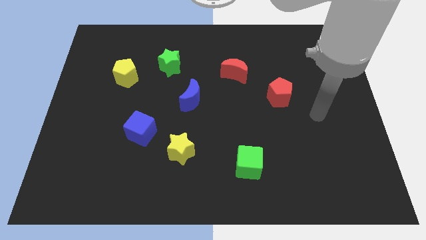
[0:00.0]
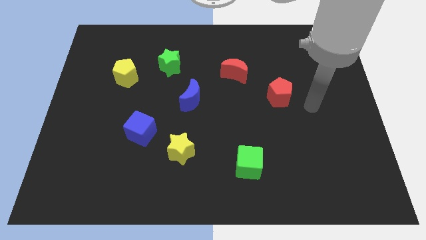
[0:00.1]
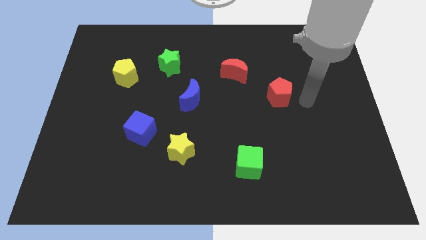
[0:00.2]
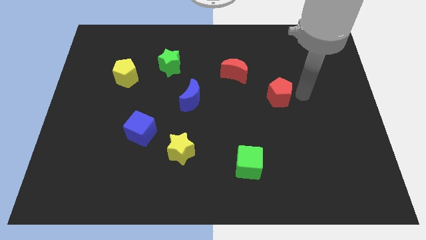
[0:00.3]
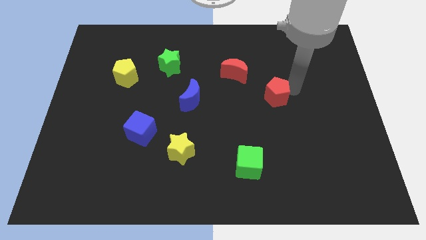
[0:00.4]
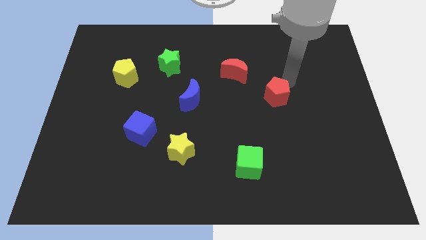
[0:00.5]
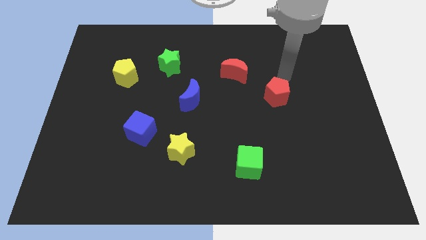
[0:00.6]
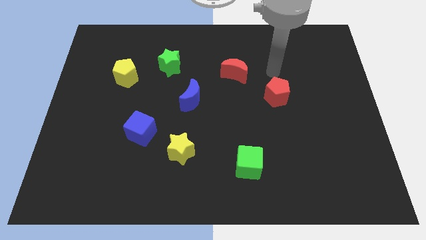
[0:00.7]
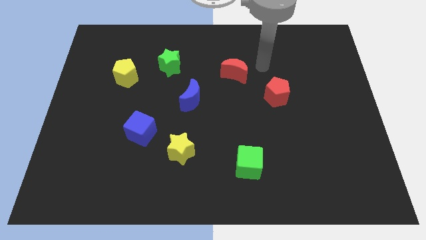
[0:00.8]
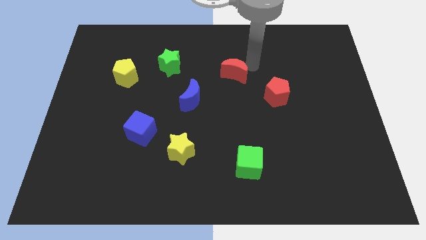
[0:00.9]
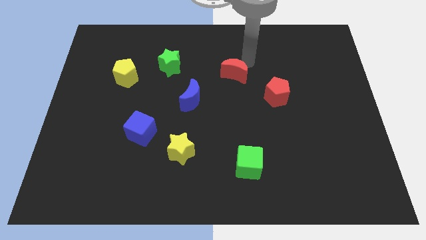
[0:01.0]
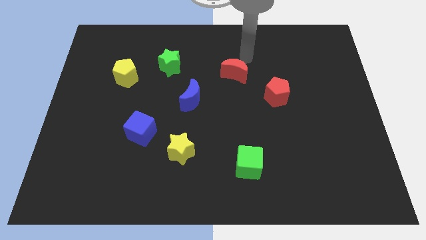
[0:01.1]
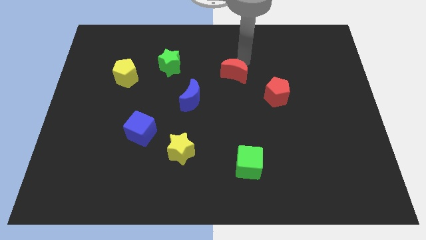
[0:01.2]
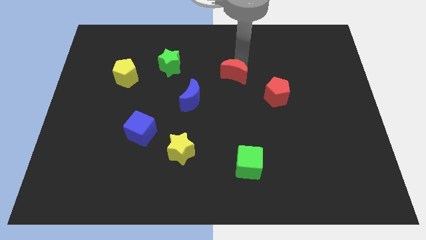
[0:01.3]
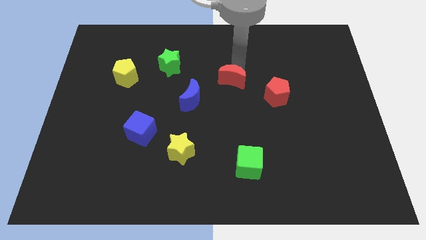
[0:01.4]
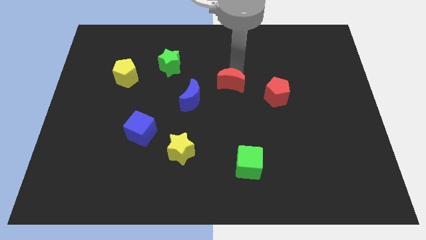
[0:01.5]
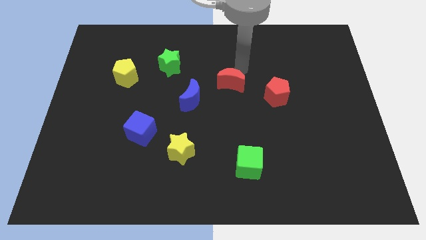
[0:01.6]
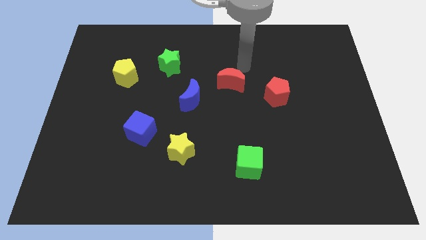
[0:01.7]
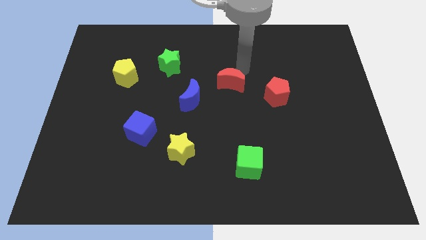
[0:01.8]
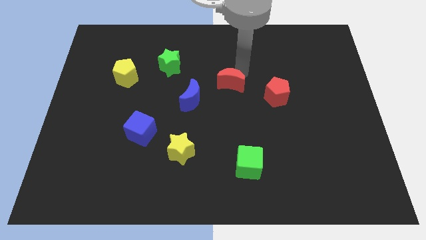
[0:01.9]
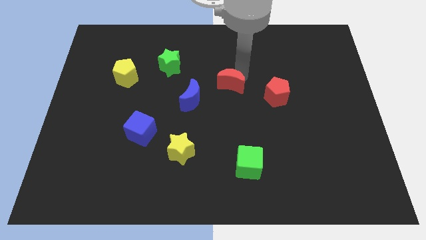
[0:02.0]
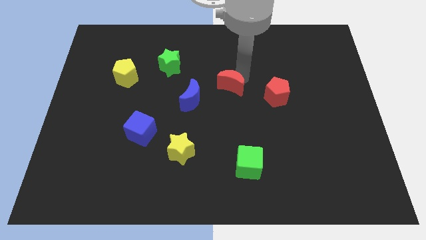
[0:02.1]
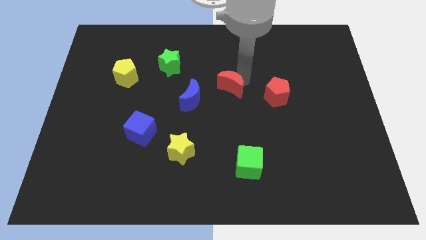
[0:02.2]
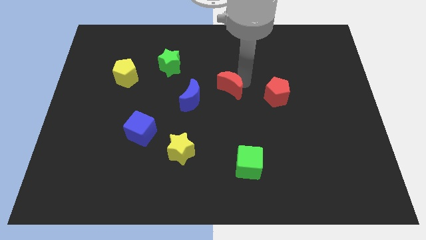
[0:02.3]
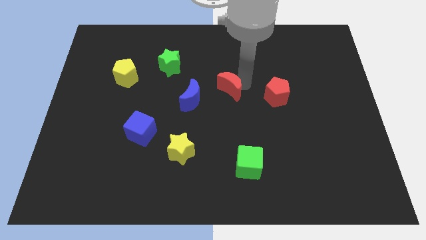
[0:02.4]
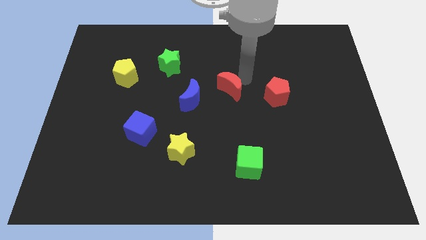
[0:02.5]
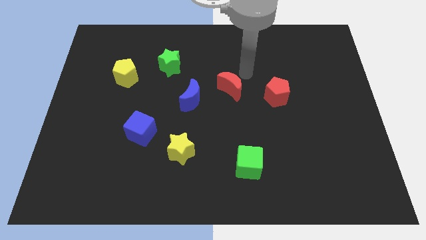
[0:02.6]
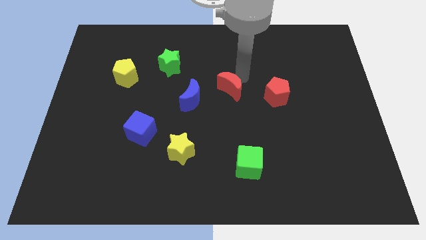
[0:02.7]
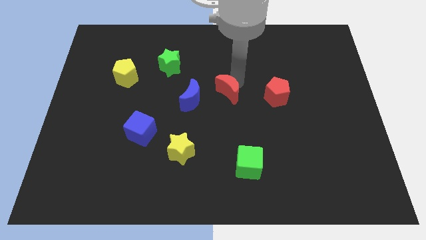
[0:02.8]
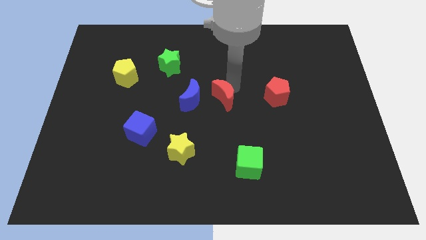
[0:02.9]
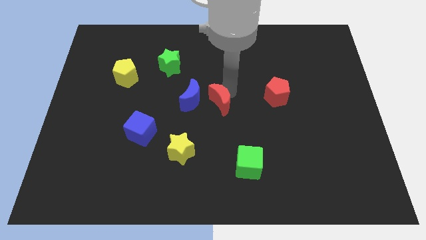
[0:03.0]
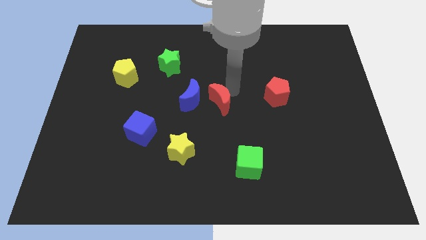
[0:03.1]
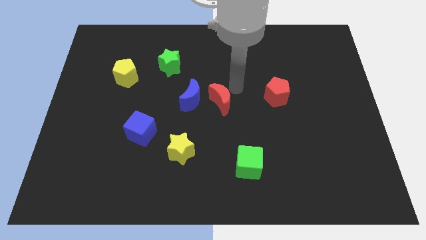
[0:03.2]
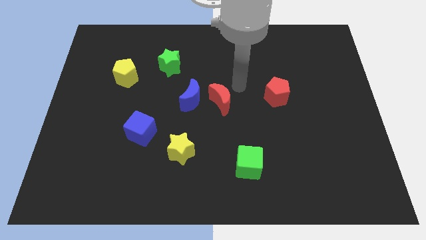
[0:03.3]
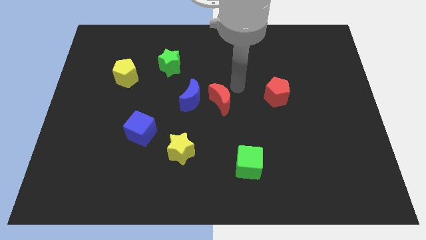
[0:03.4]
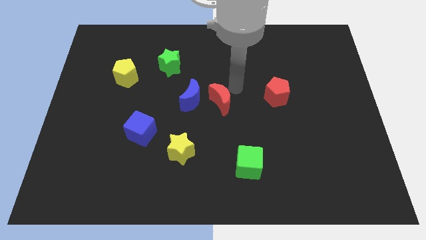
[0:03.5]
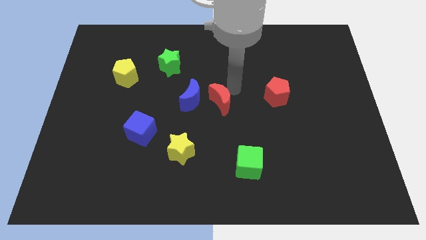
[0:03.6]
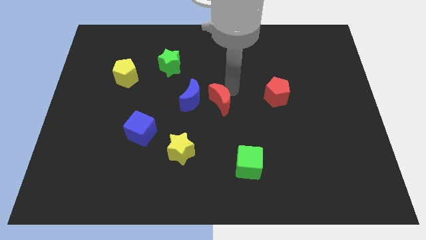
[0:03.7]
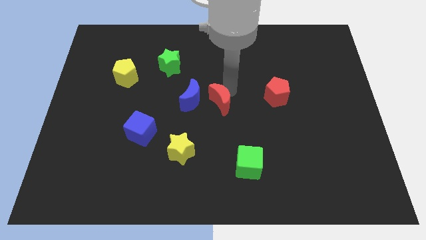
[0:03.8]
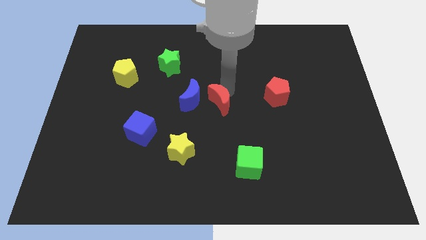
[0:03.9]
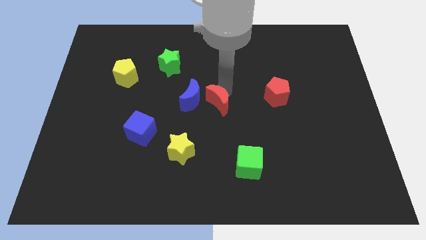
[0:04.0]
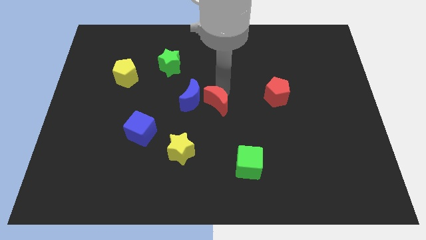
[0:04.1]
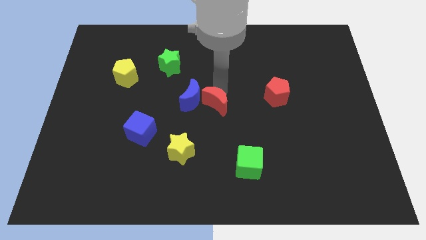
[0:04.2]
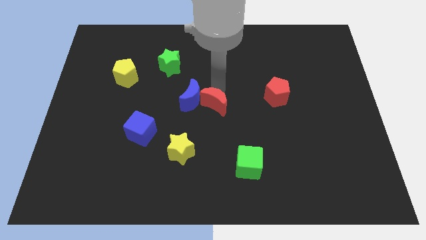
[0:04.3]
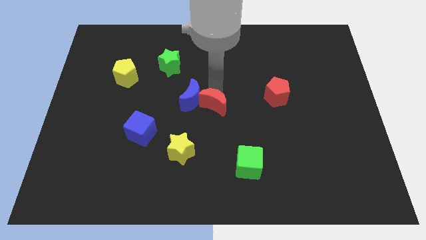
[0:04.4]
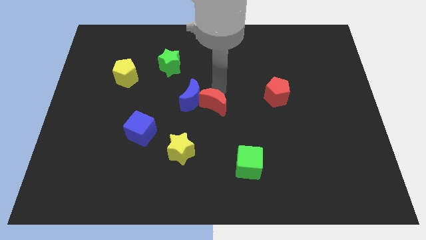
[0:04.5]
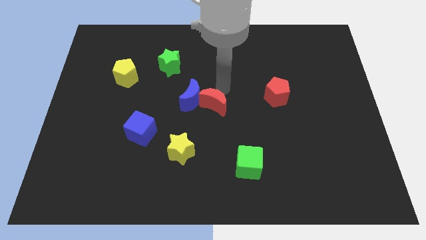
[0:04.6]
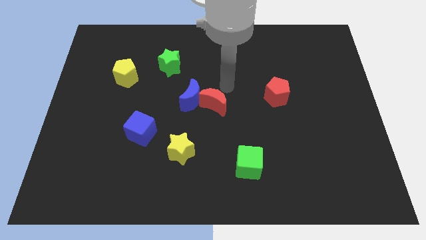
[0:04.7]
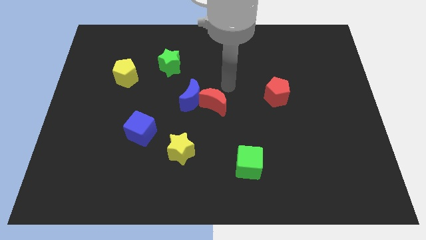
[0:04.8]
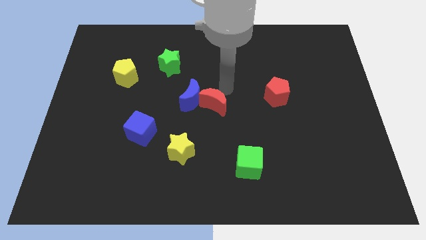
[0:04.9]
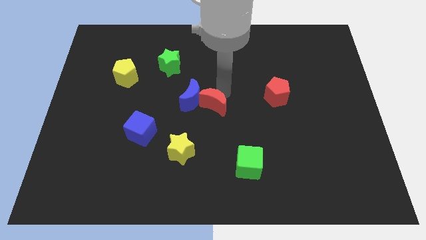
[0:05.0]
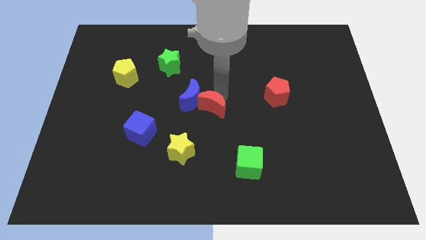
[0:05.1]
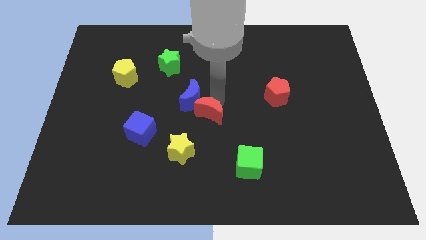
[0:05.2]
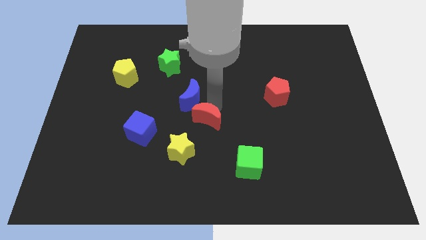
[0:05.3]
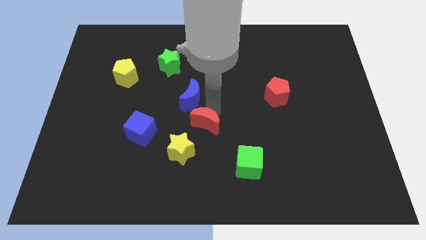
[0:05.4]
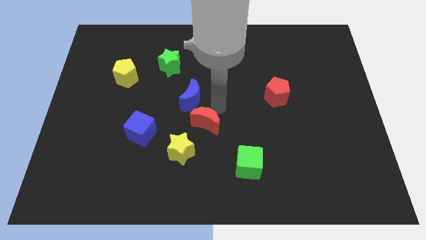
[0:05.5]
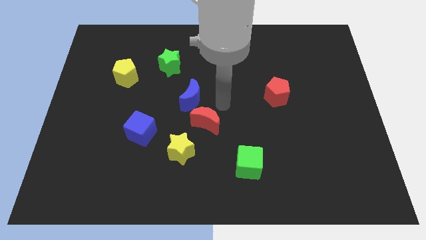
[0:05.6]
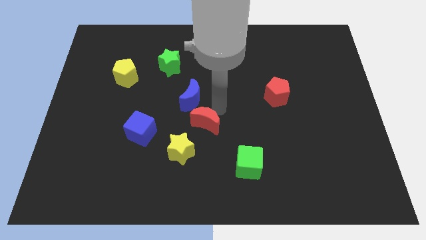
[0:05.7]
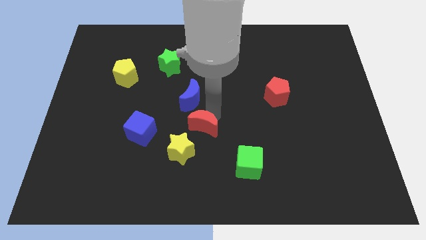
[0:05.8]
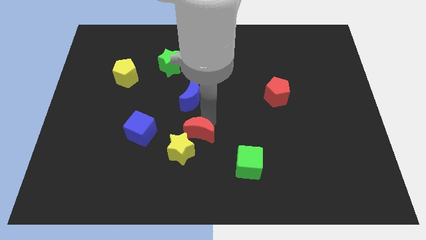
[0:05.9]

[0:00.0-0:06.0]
push the red moon to the yellow star

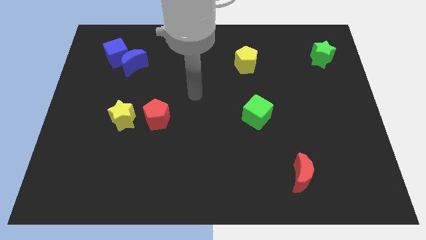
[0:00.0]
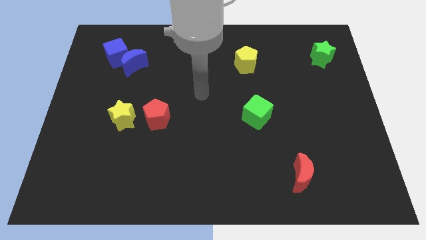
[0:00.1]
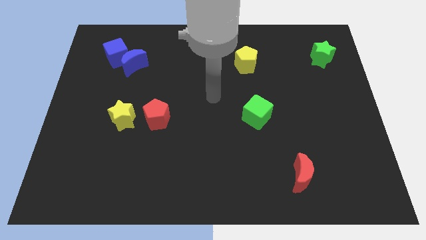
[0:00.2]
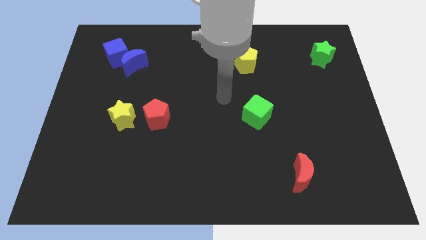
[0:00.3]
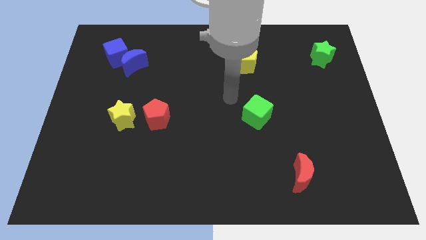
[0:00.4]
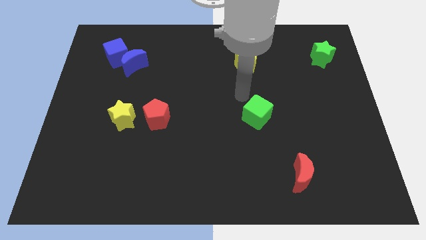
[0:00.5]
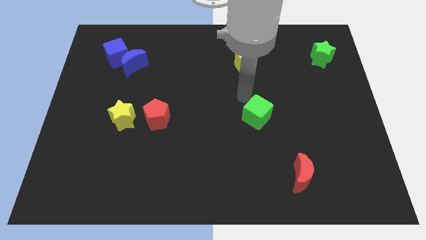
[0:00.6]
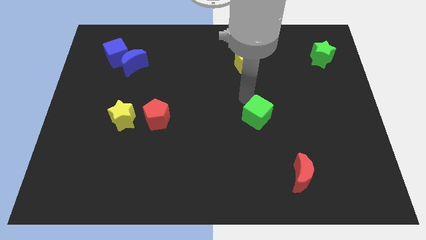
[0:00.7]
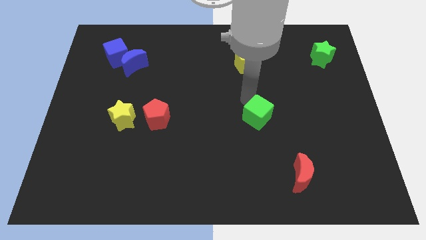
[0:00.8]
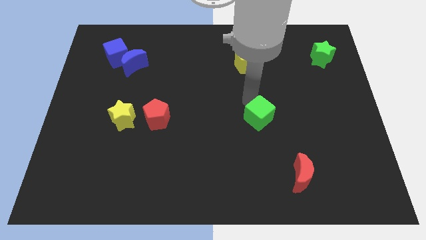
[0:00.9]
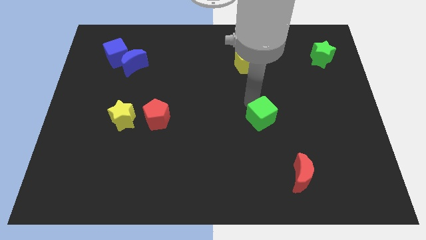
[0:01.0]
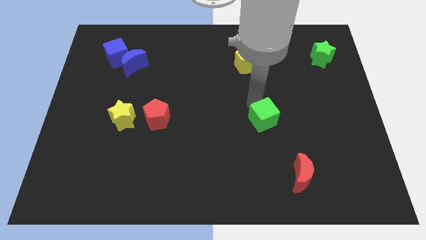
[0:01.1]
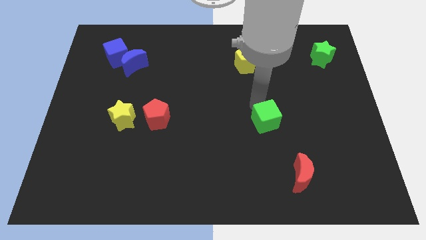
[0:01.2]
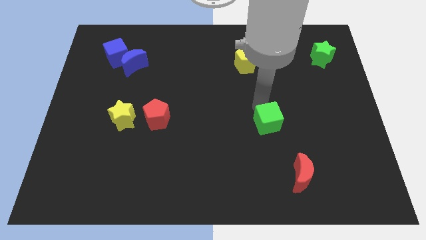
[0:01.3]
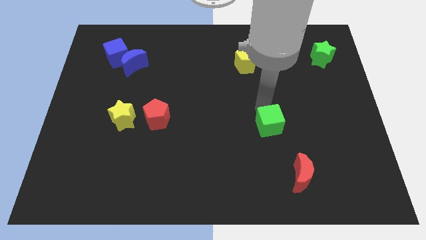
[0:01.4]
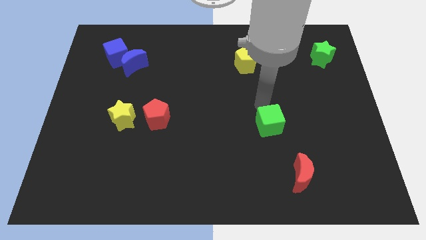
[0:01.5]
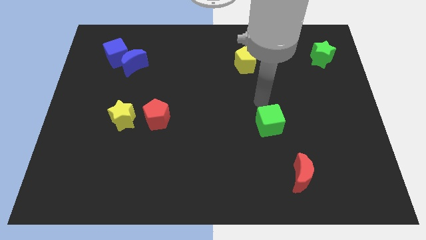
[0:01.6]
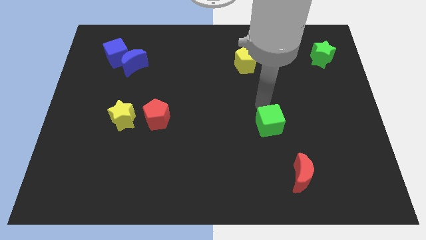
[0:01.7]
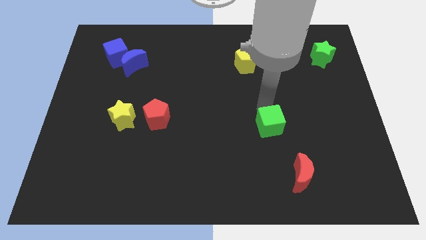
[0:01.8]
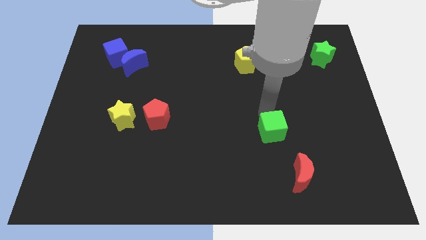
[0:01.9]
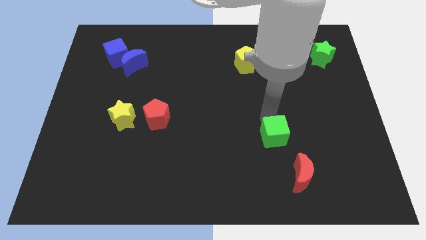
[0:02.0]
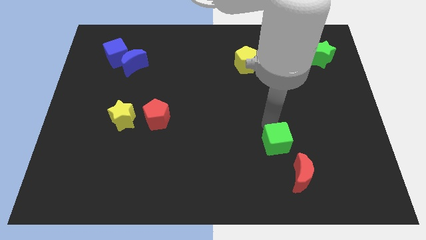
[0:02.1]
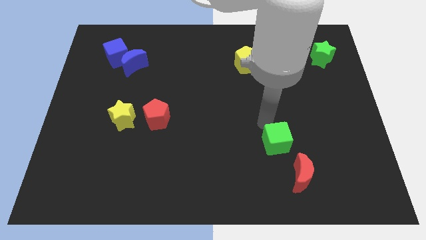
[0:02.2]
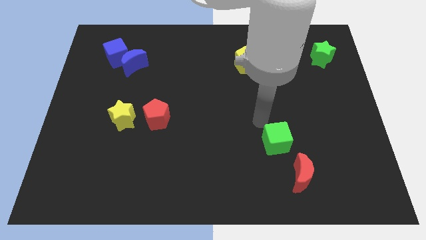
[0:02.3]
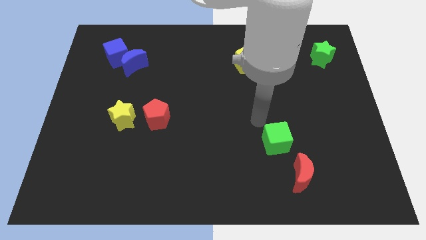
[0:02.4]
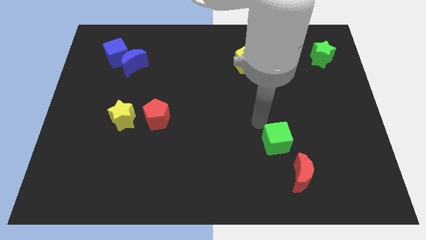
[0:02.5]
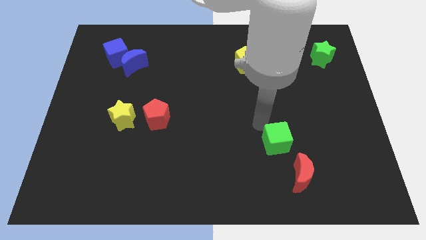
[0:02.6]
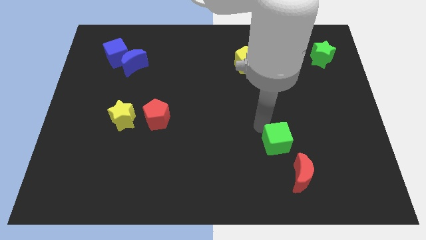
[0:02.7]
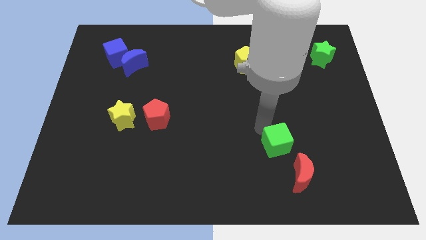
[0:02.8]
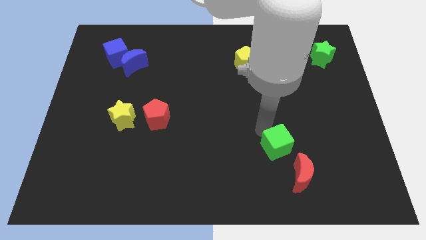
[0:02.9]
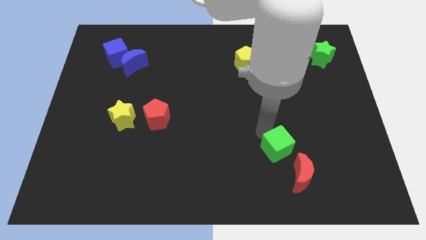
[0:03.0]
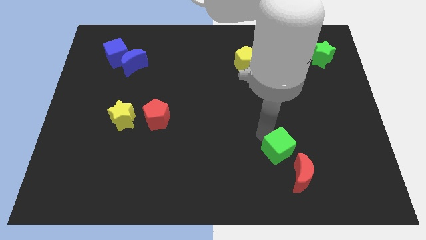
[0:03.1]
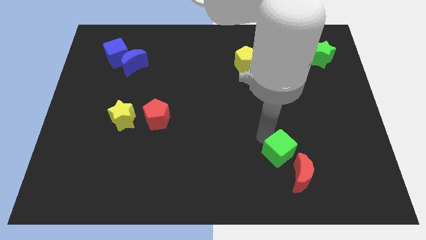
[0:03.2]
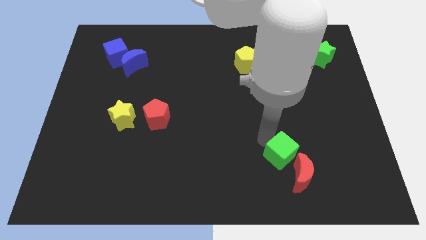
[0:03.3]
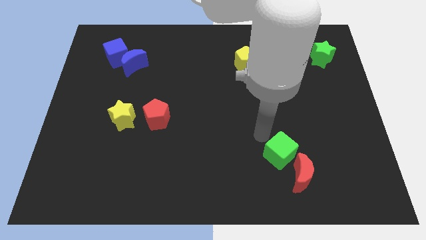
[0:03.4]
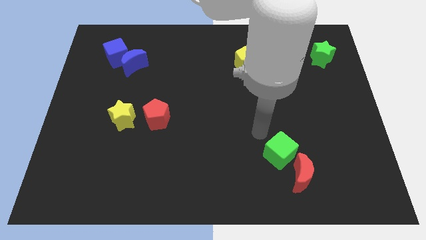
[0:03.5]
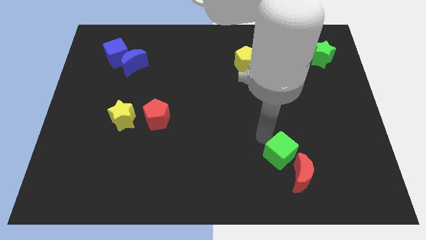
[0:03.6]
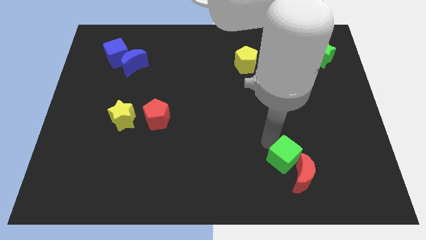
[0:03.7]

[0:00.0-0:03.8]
slide the green cube to the red moon
